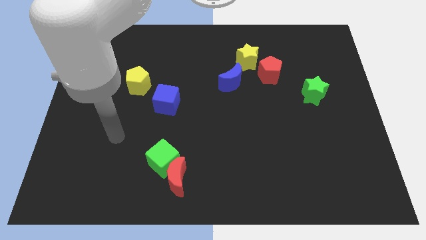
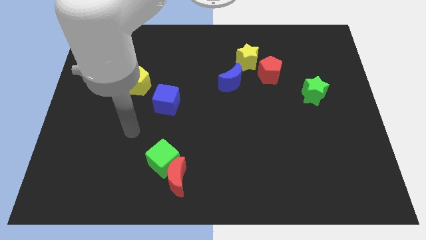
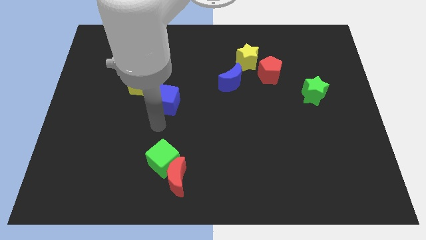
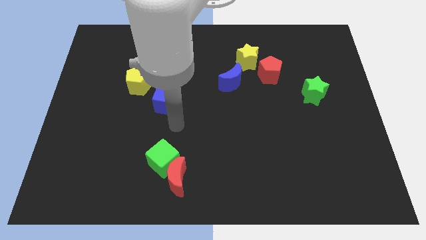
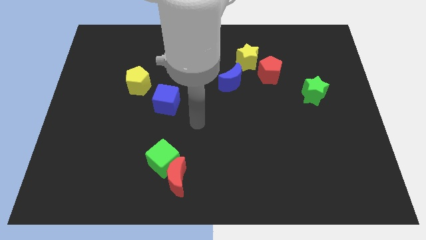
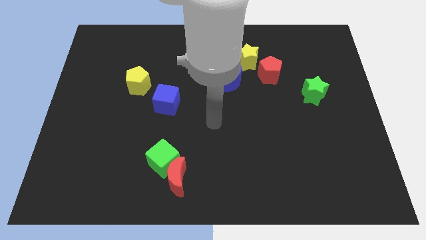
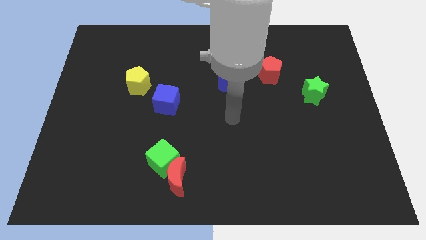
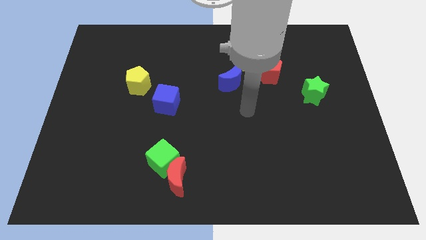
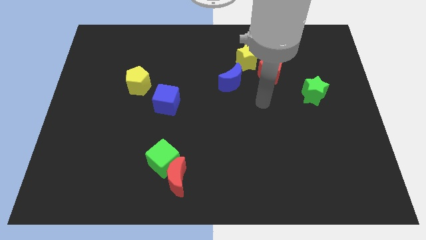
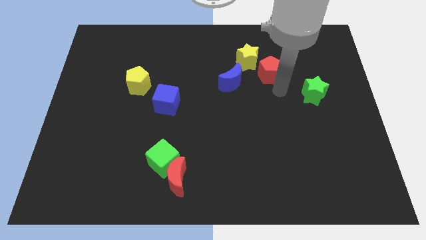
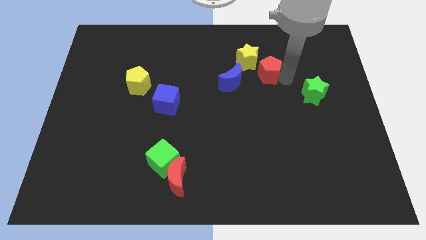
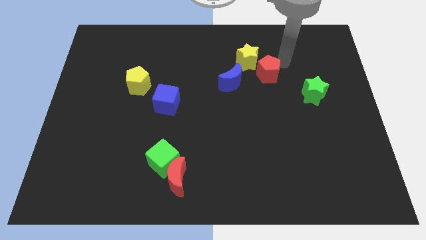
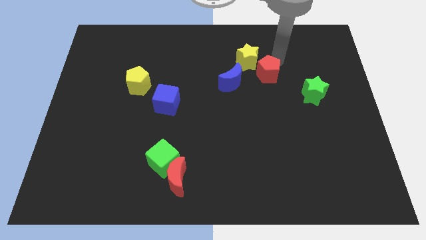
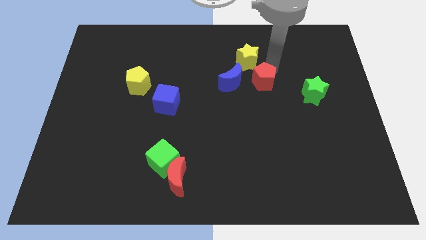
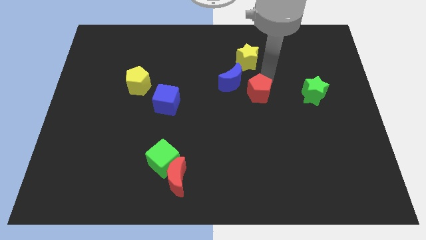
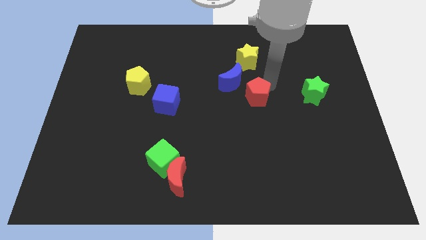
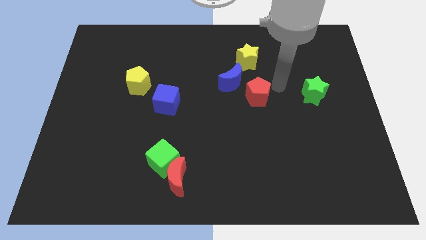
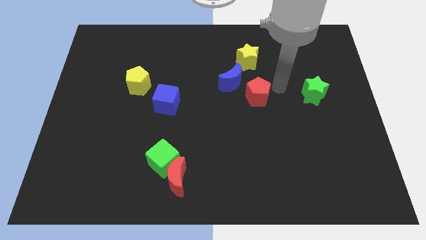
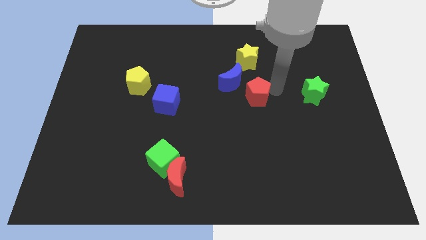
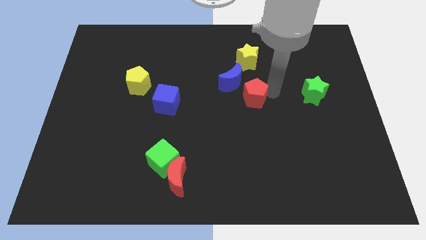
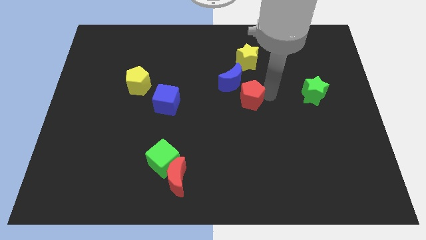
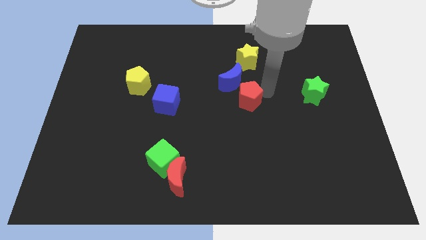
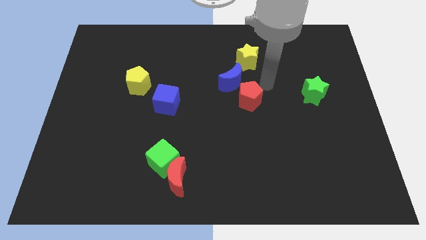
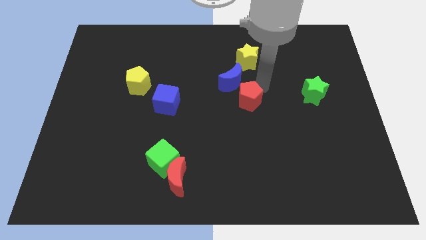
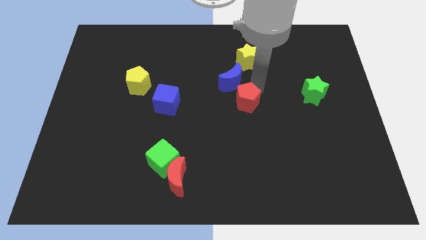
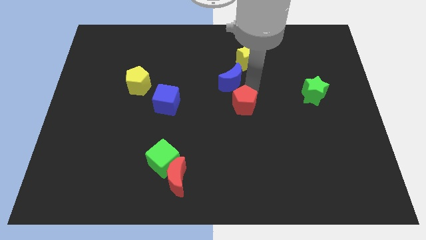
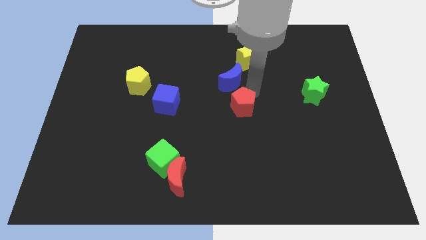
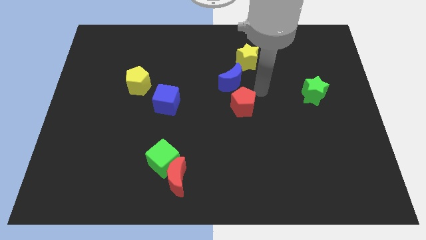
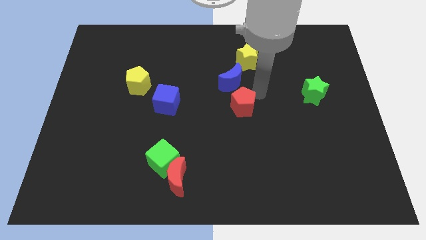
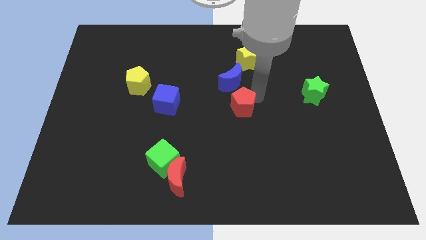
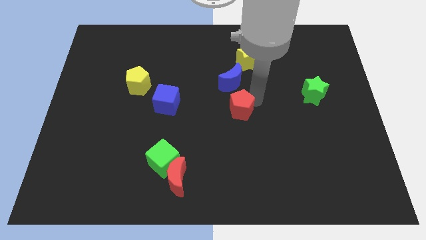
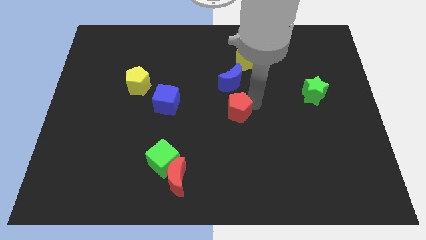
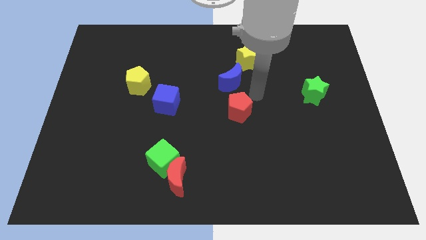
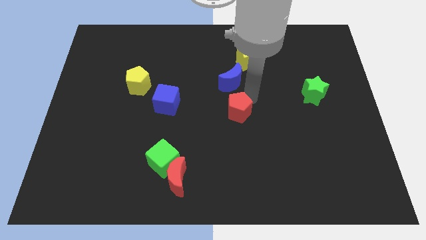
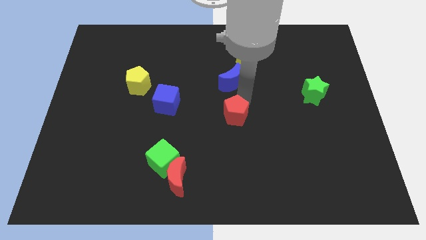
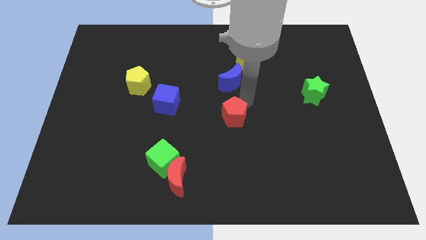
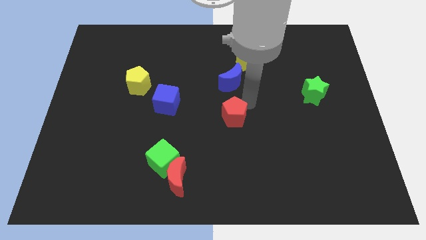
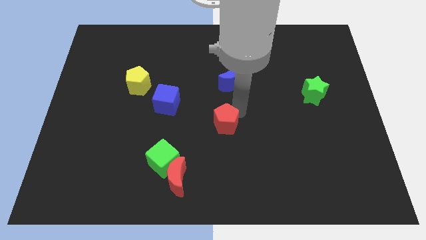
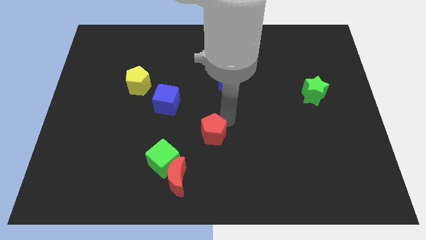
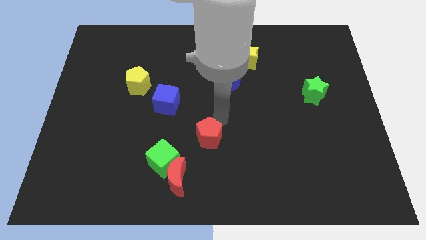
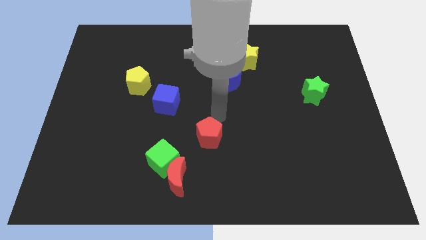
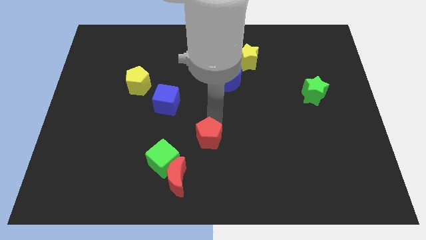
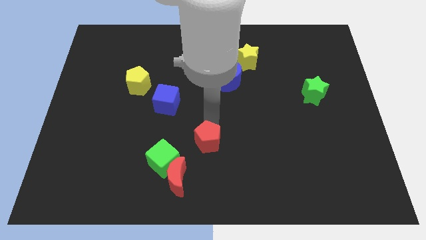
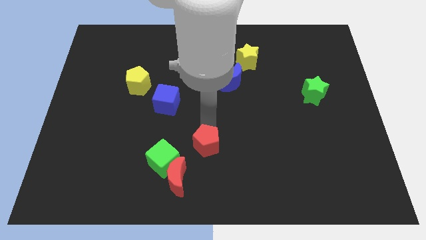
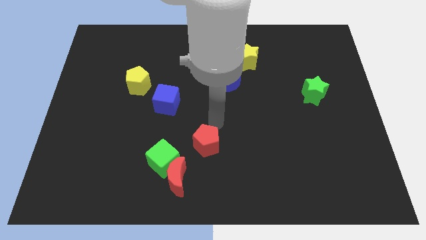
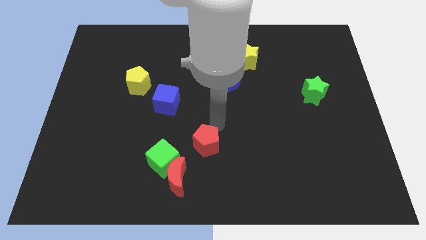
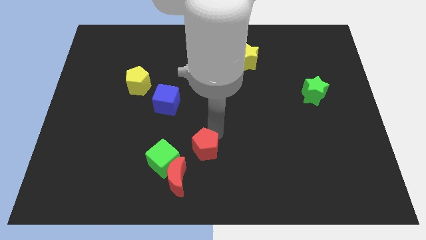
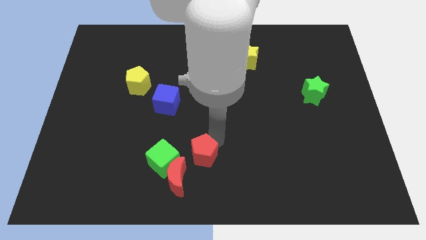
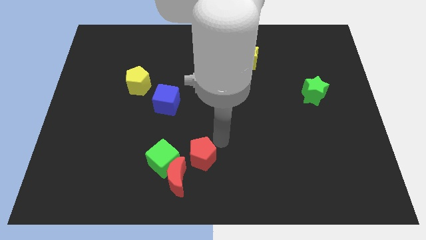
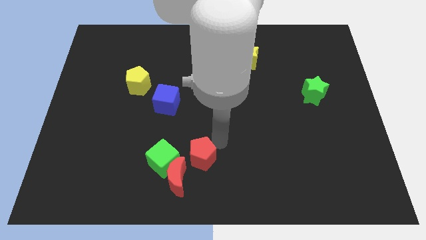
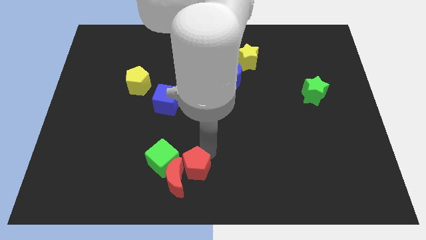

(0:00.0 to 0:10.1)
slide the red pentagon close to the red moon

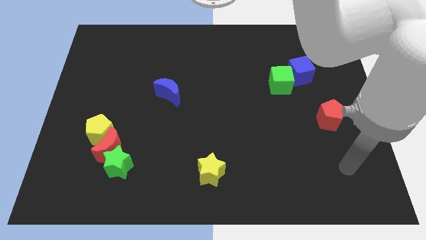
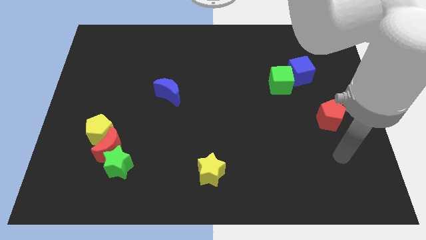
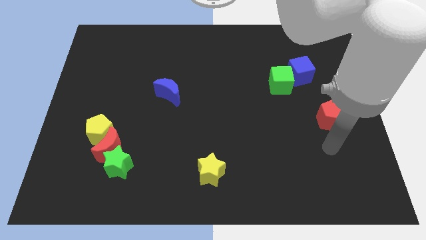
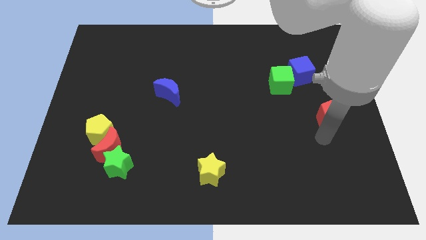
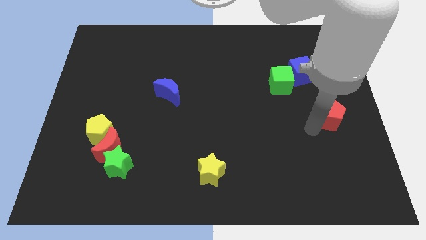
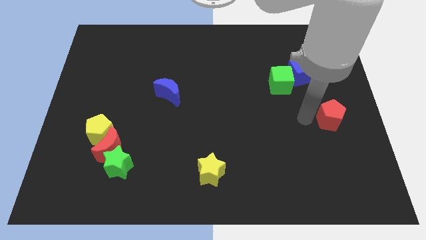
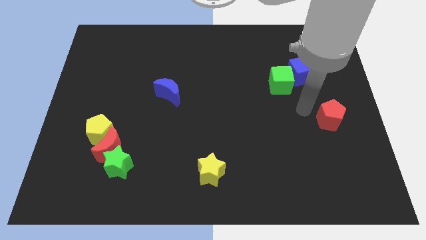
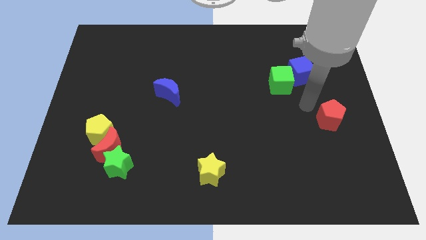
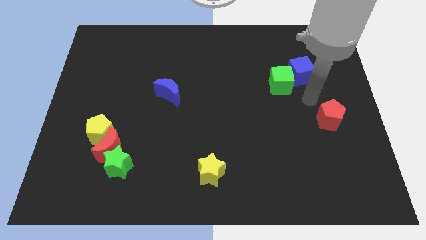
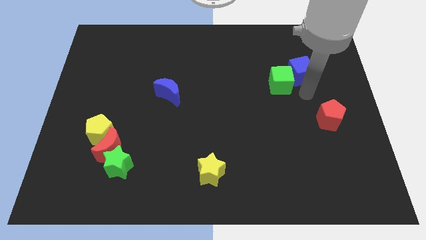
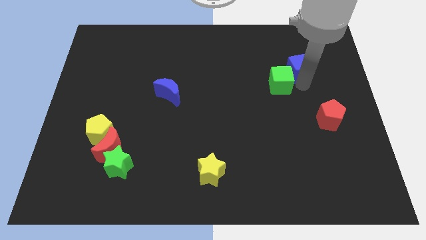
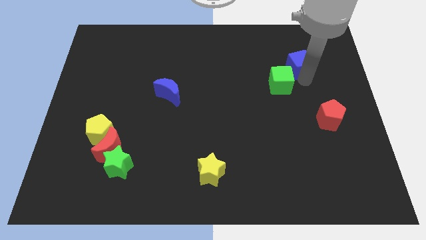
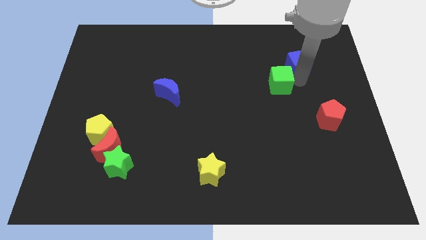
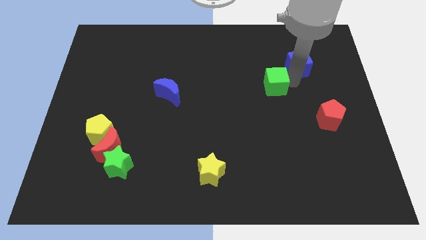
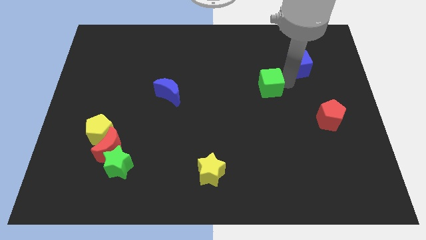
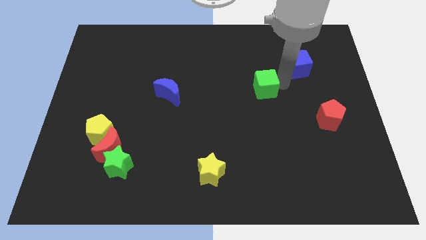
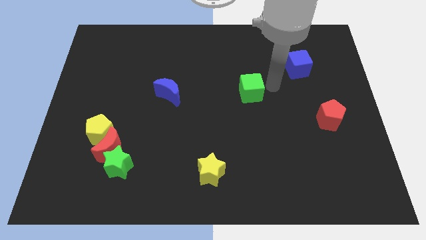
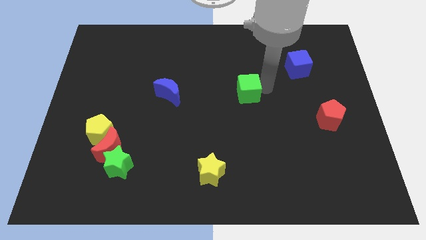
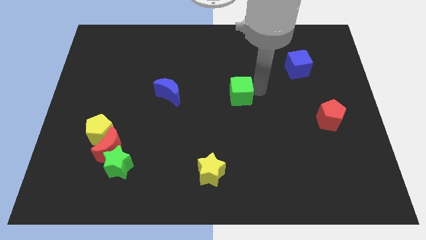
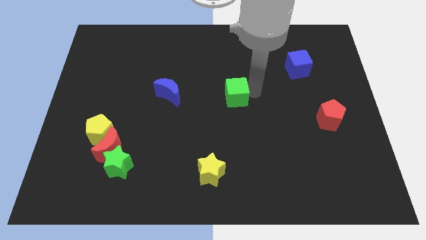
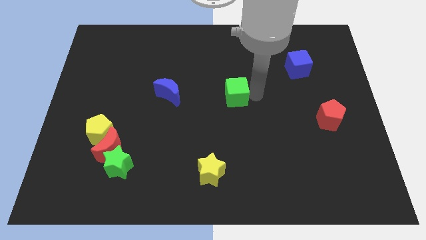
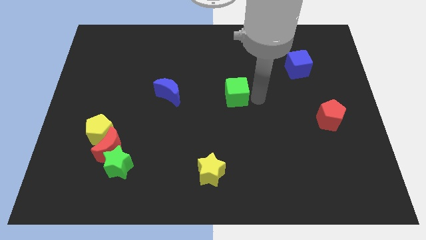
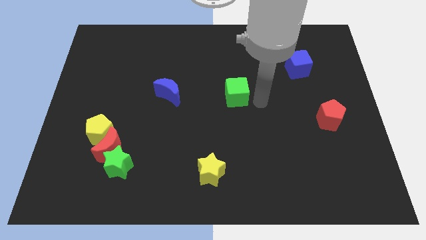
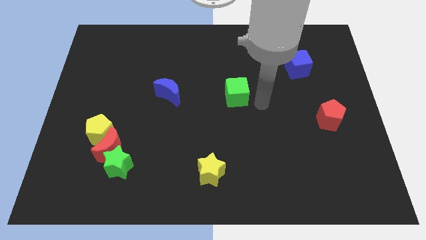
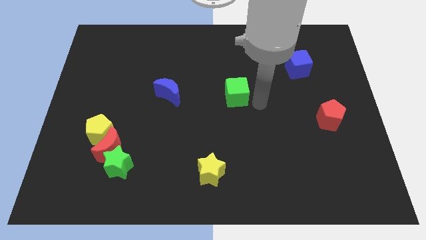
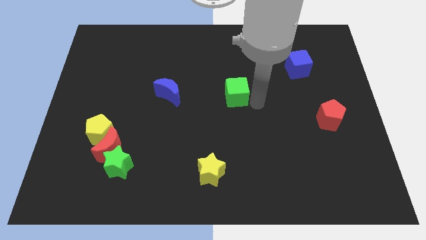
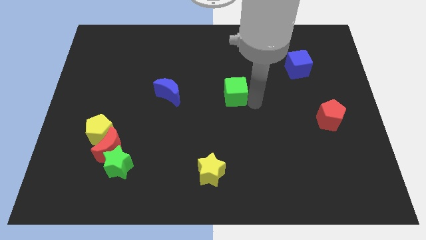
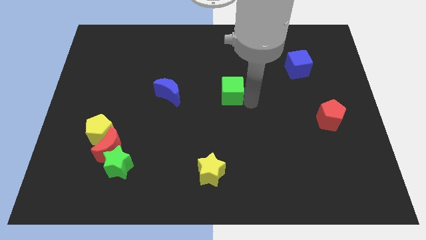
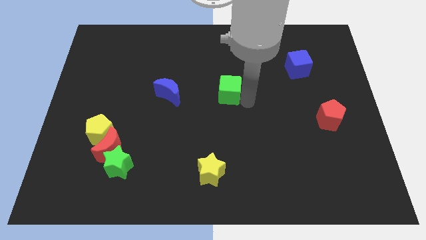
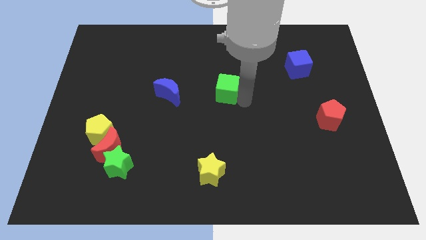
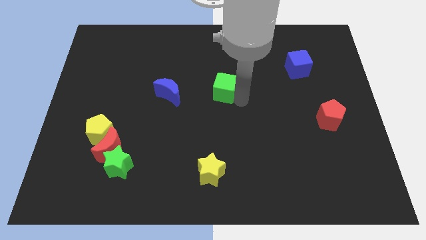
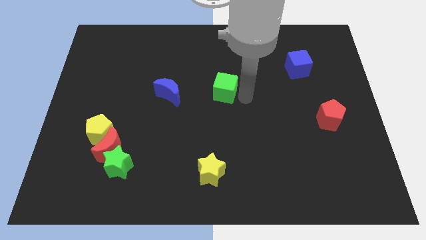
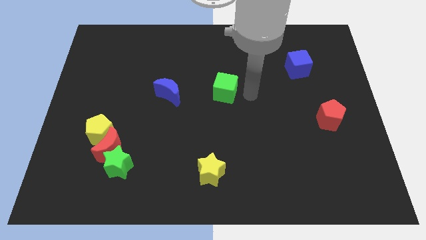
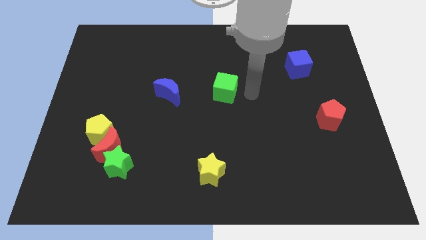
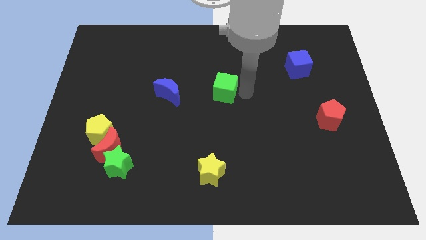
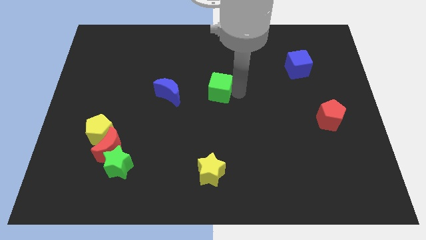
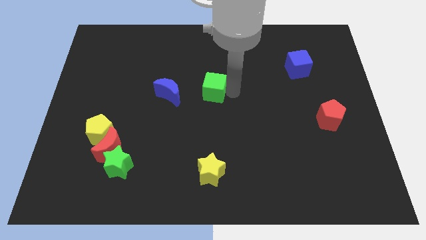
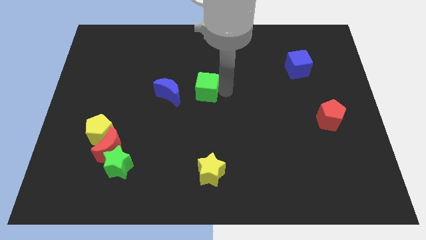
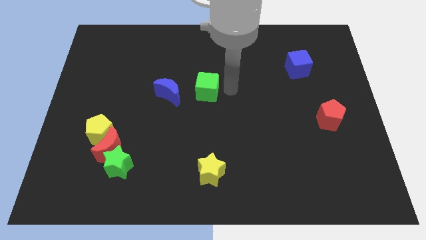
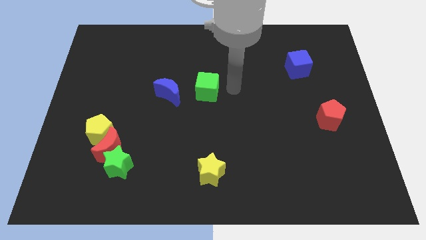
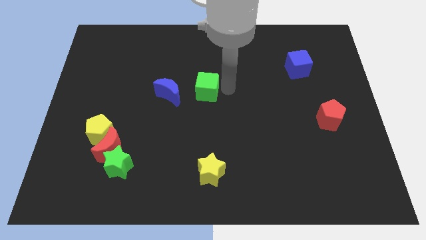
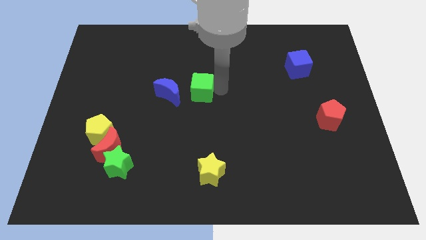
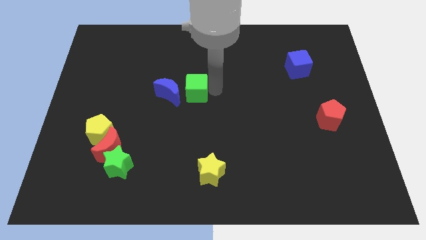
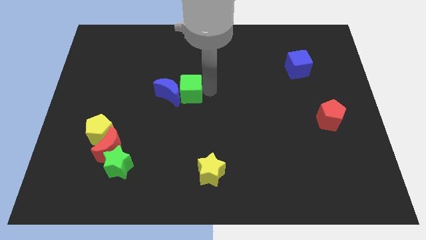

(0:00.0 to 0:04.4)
slide the green cube close to the blue moon
